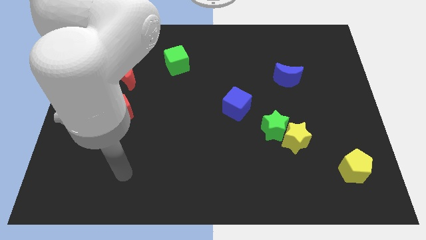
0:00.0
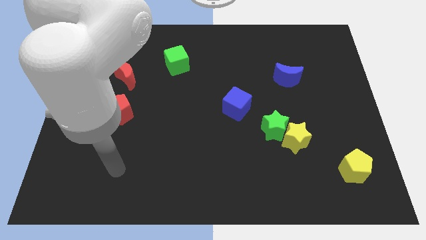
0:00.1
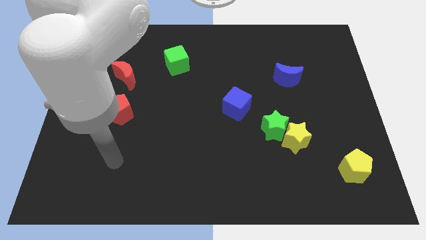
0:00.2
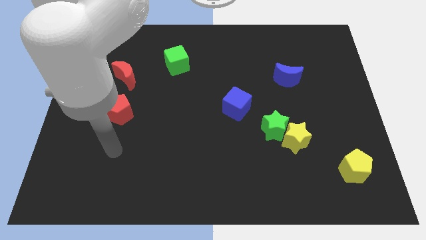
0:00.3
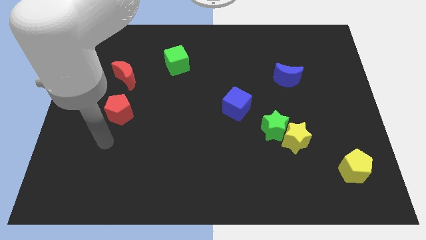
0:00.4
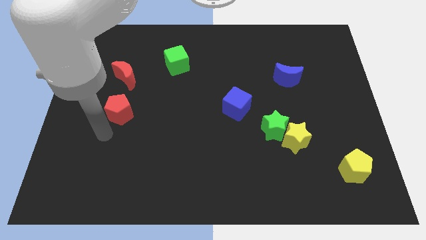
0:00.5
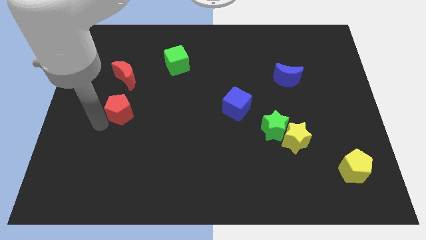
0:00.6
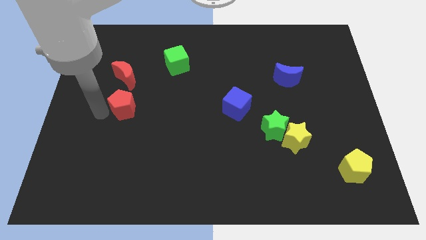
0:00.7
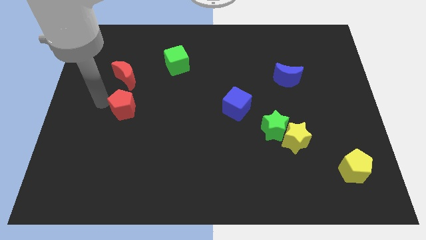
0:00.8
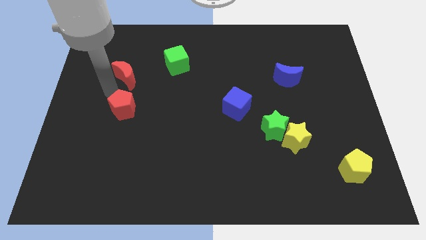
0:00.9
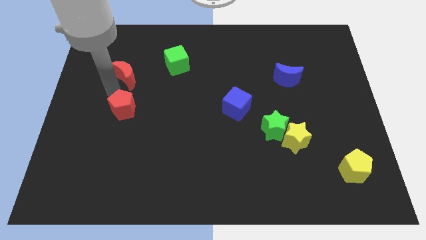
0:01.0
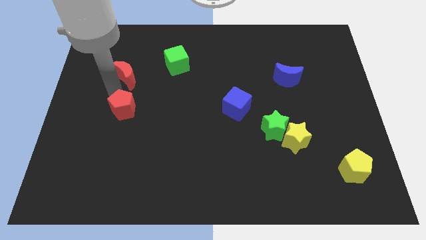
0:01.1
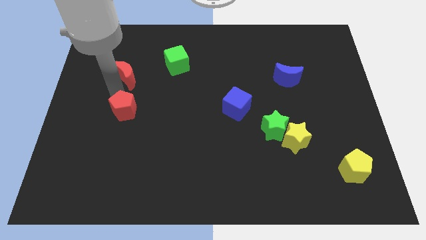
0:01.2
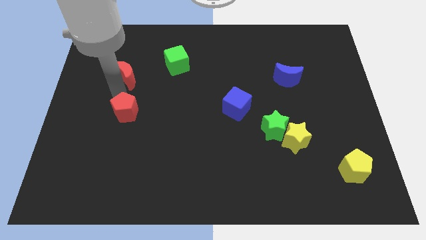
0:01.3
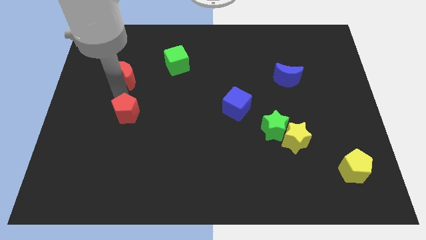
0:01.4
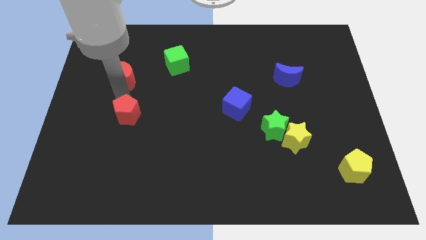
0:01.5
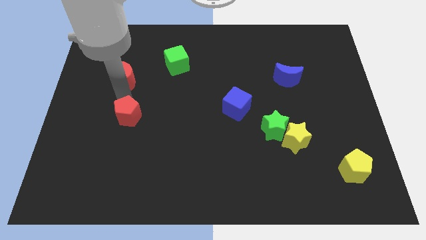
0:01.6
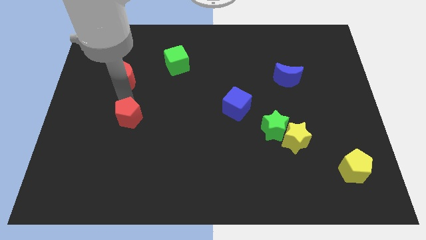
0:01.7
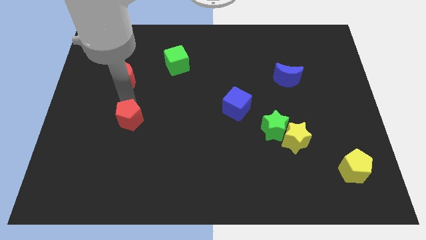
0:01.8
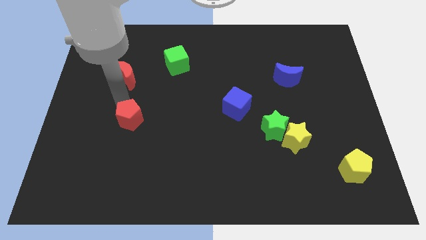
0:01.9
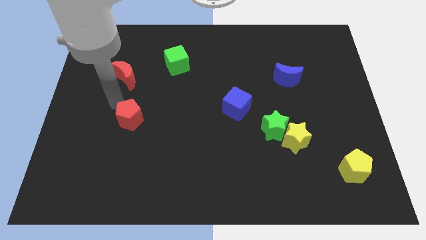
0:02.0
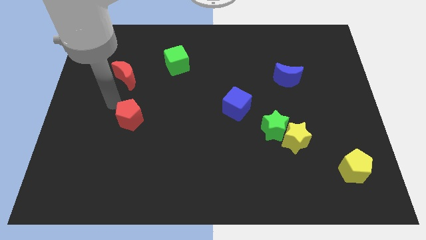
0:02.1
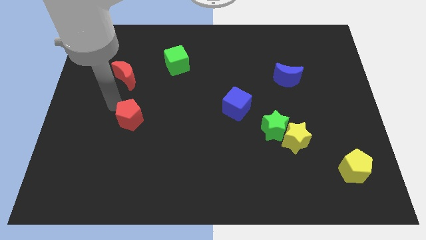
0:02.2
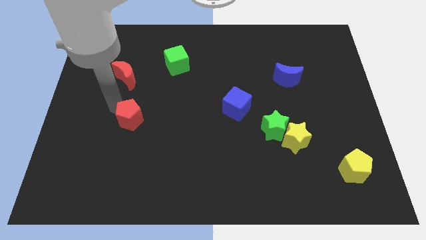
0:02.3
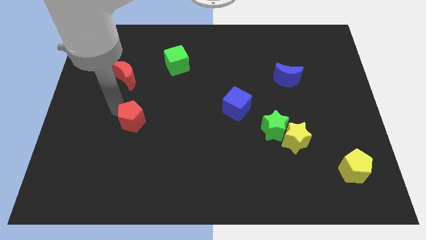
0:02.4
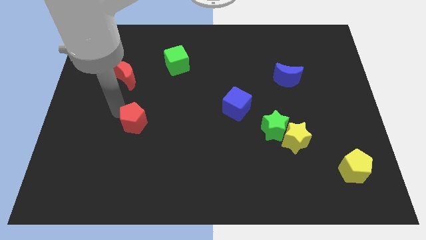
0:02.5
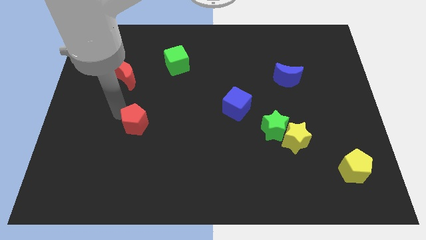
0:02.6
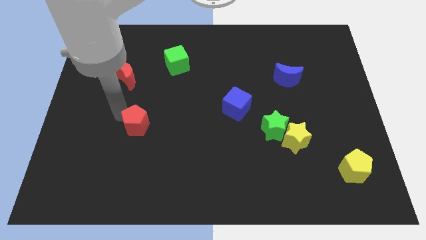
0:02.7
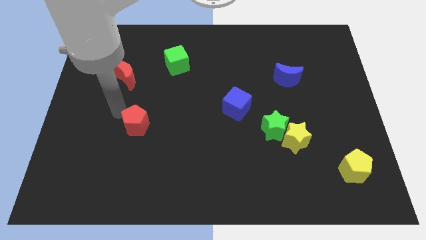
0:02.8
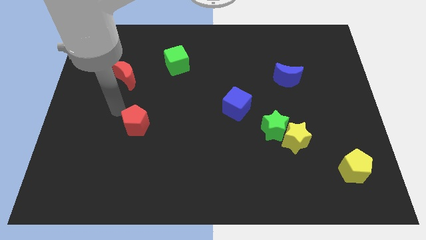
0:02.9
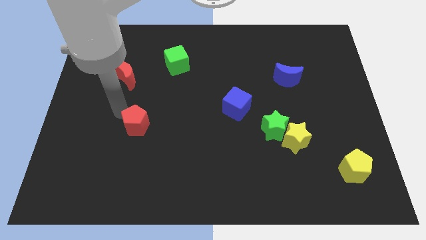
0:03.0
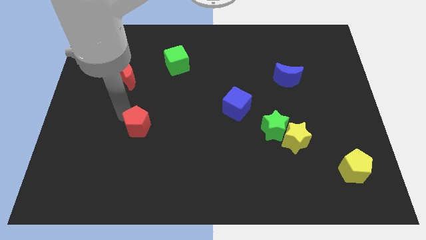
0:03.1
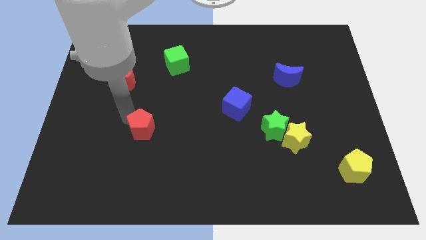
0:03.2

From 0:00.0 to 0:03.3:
push the red pentagon slightly downwards and then right

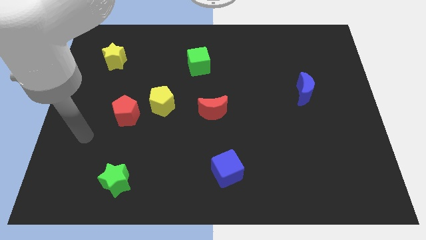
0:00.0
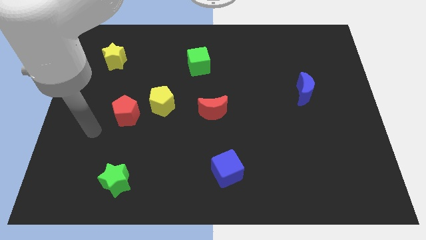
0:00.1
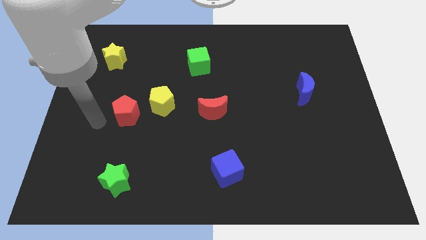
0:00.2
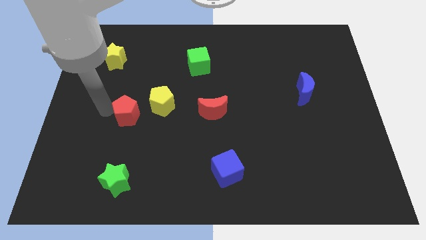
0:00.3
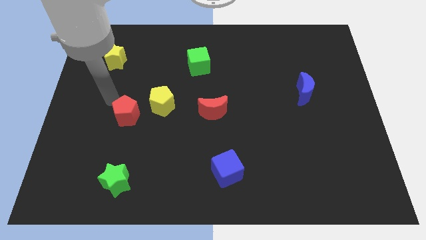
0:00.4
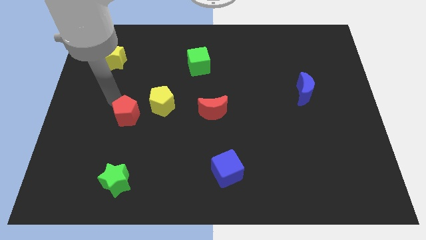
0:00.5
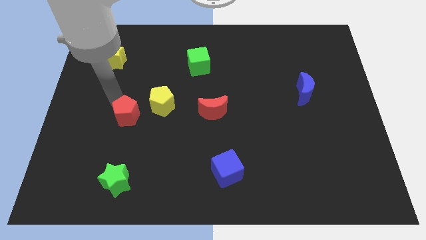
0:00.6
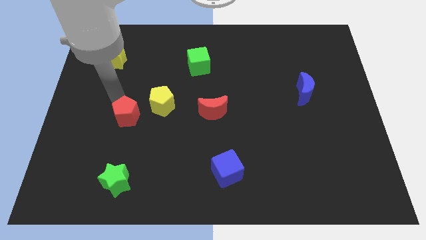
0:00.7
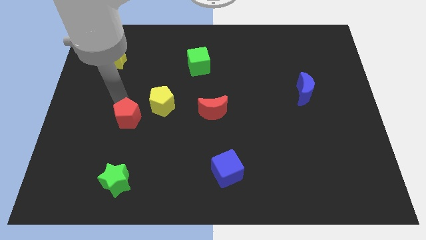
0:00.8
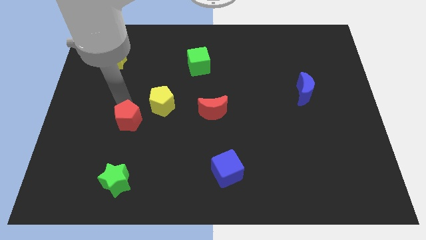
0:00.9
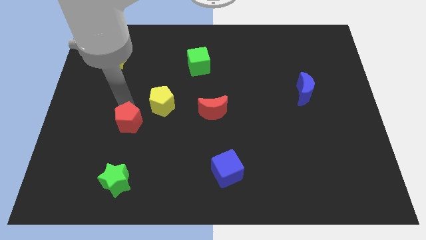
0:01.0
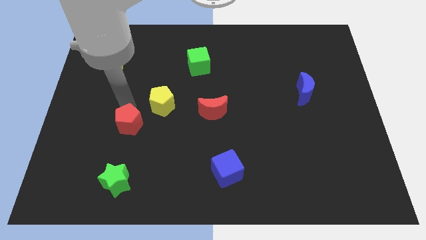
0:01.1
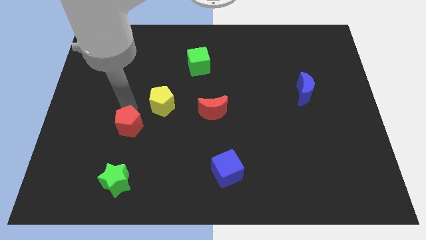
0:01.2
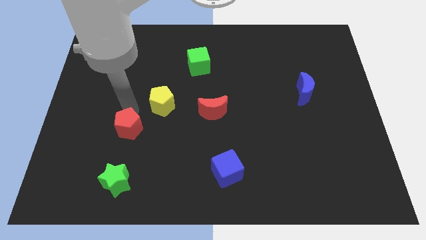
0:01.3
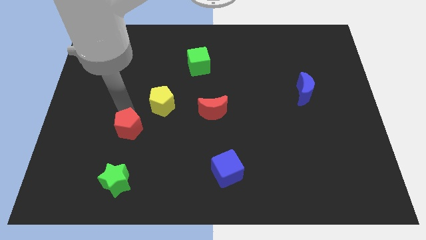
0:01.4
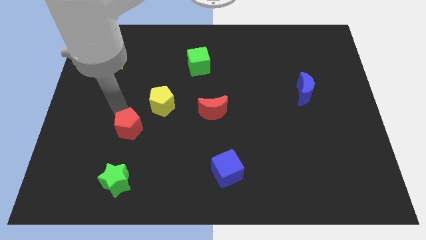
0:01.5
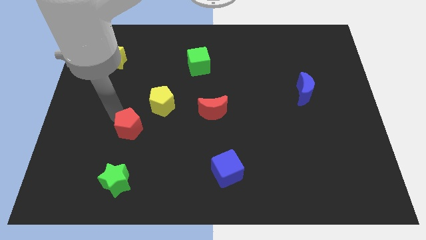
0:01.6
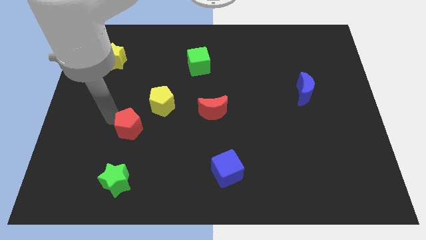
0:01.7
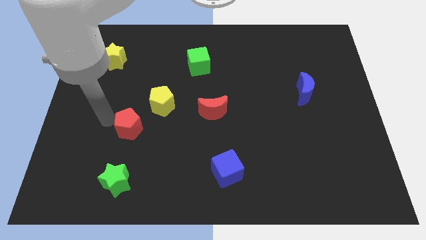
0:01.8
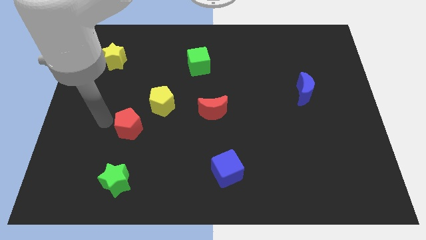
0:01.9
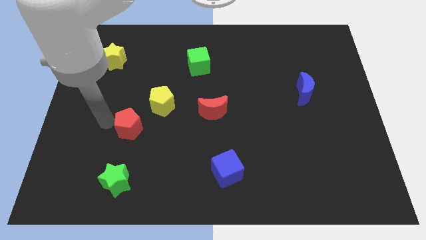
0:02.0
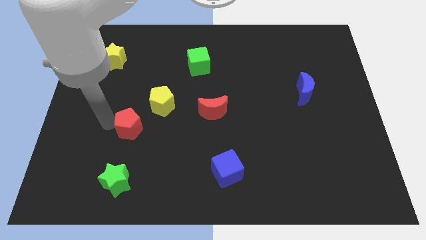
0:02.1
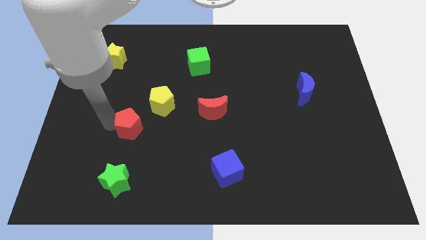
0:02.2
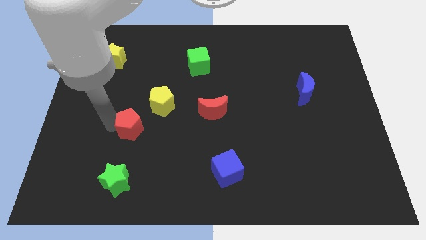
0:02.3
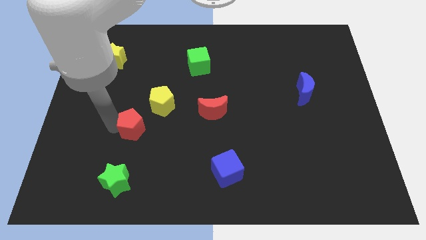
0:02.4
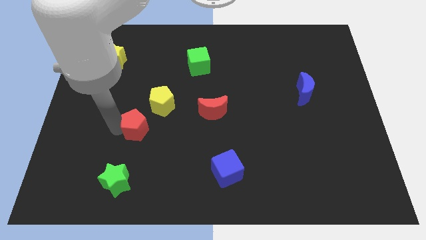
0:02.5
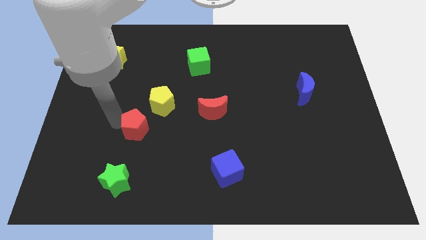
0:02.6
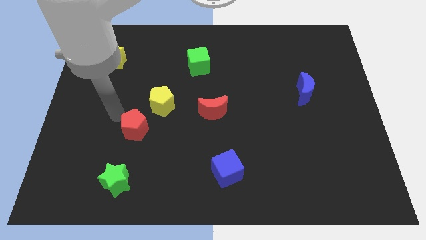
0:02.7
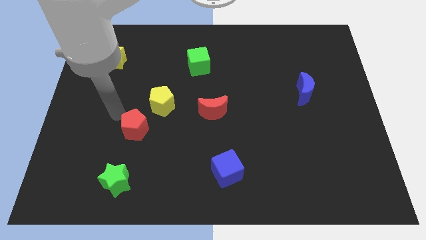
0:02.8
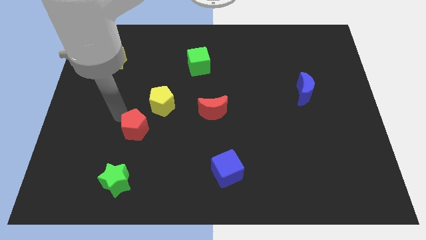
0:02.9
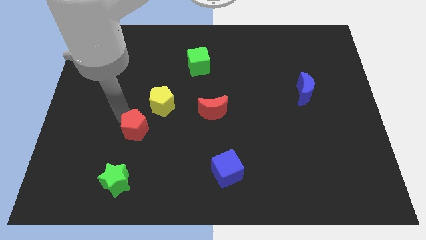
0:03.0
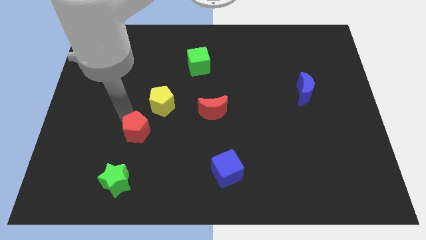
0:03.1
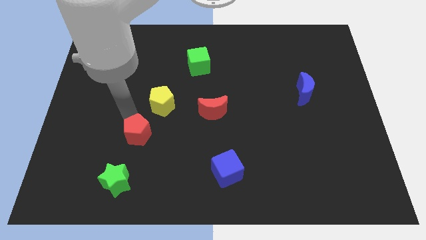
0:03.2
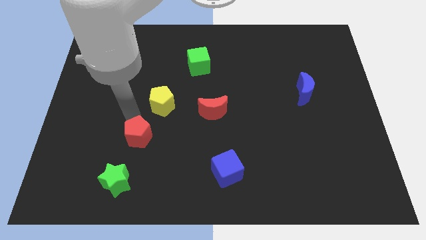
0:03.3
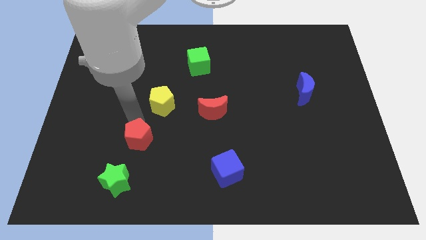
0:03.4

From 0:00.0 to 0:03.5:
move the red pentagon slightly down and to the right

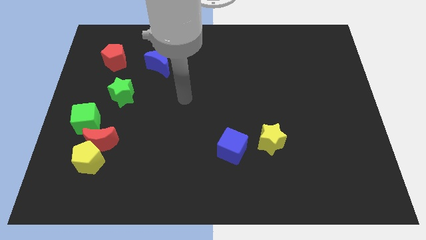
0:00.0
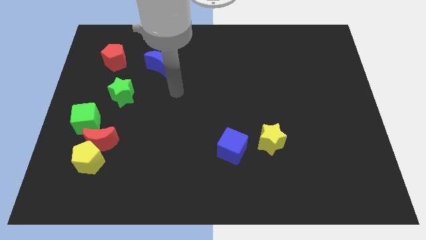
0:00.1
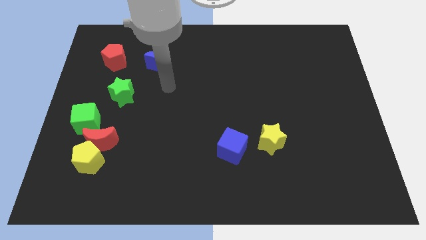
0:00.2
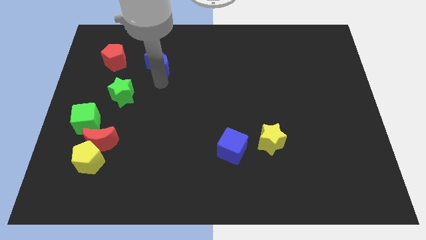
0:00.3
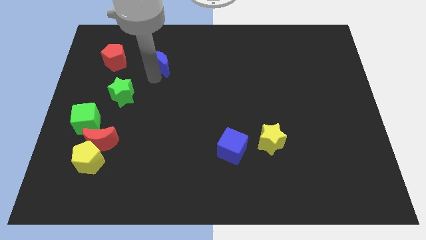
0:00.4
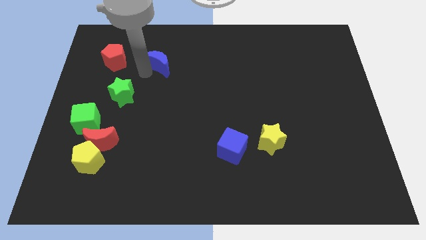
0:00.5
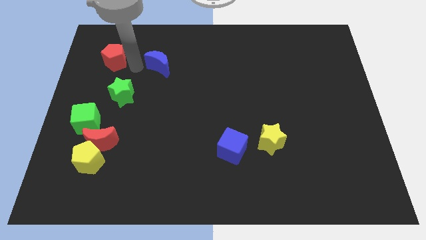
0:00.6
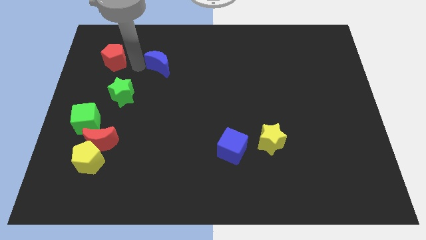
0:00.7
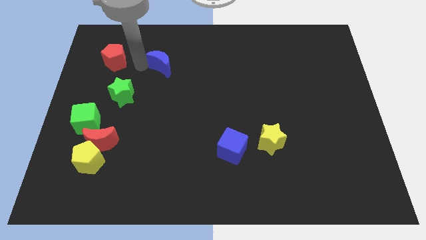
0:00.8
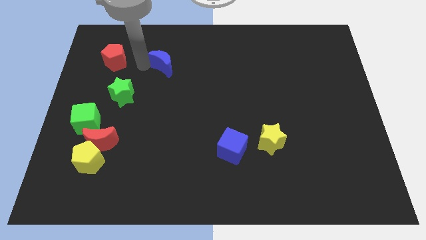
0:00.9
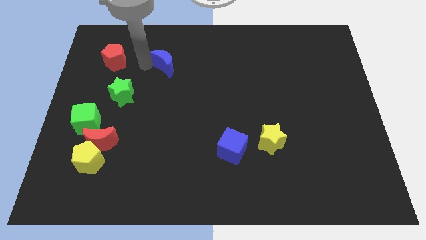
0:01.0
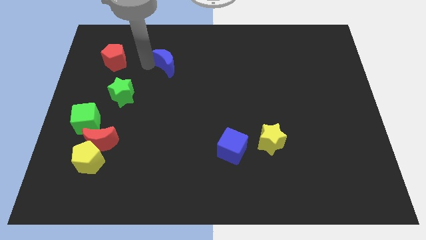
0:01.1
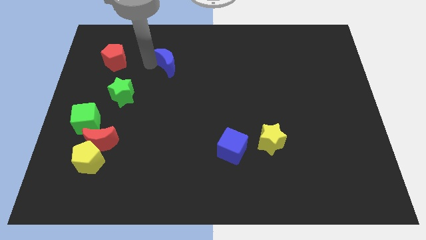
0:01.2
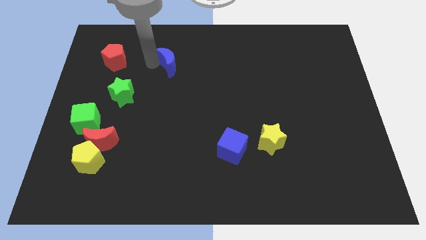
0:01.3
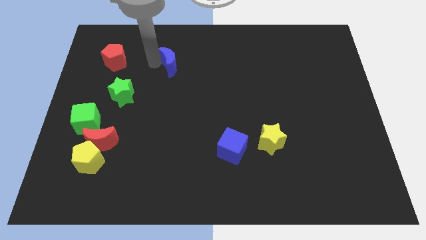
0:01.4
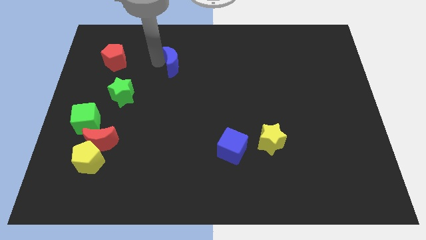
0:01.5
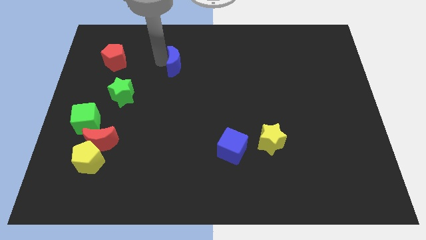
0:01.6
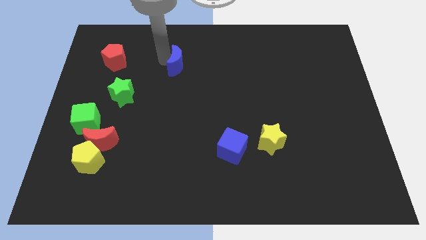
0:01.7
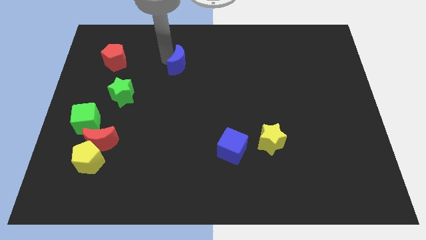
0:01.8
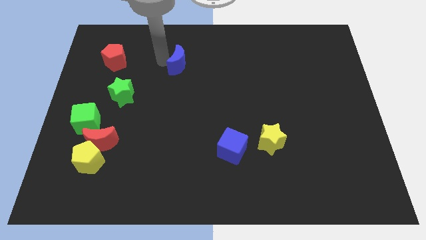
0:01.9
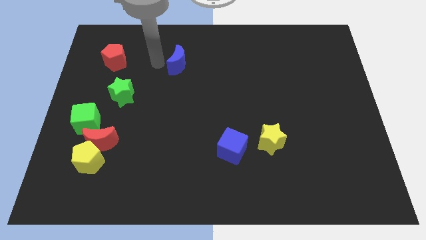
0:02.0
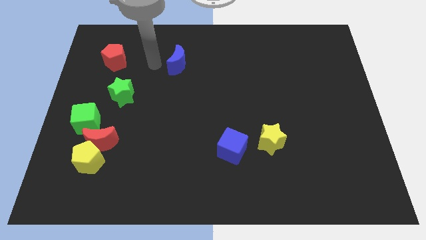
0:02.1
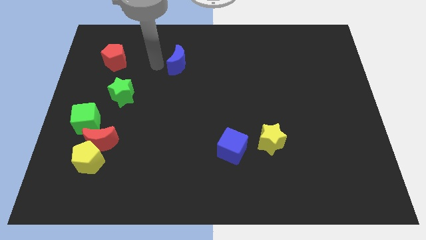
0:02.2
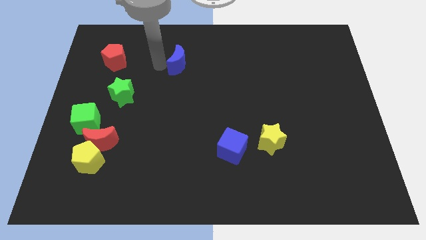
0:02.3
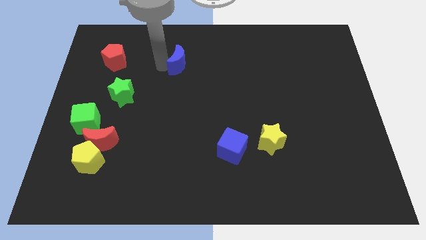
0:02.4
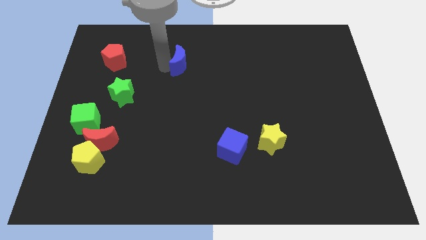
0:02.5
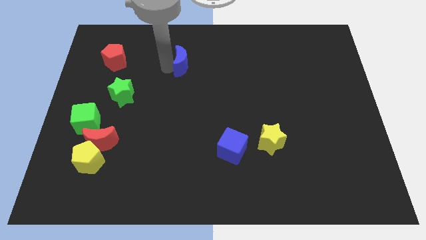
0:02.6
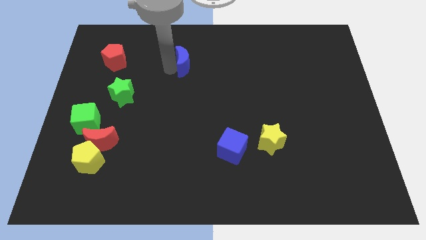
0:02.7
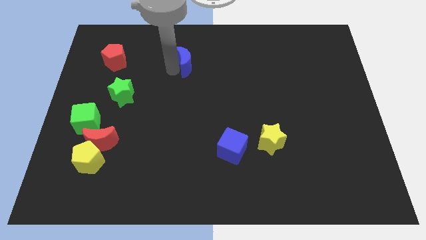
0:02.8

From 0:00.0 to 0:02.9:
slightly move the blue moon to the right
